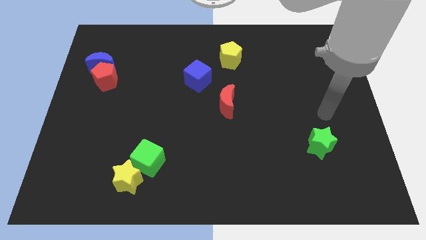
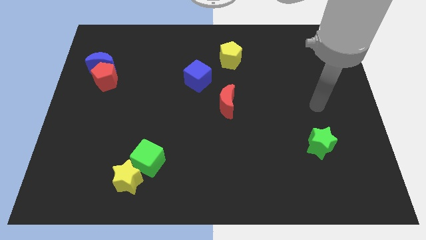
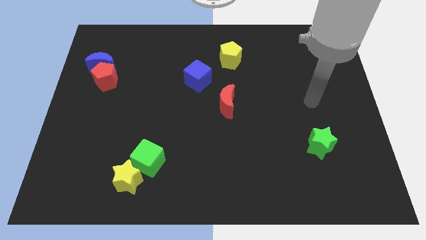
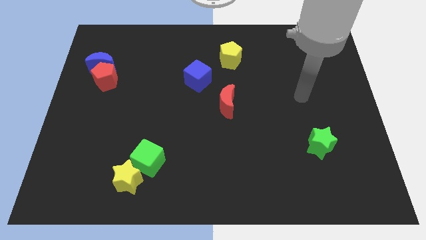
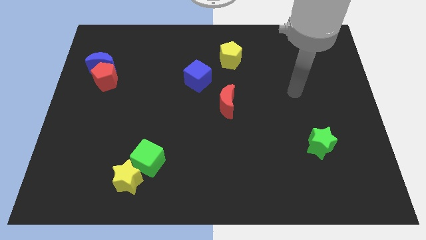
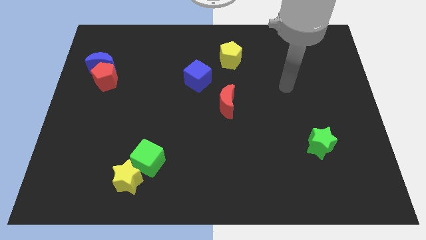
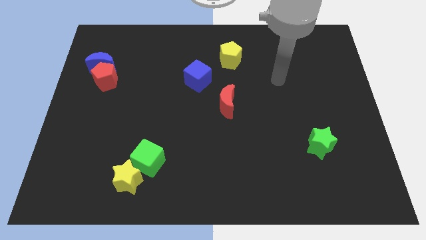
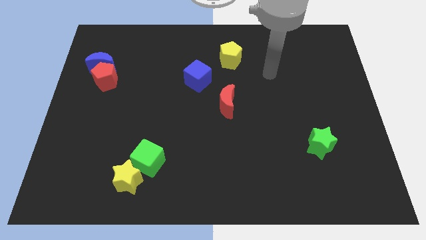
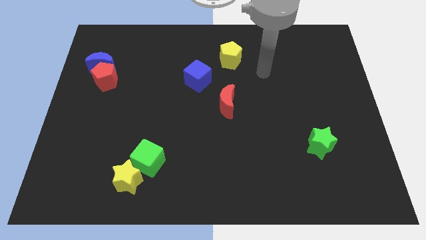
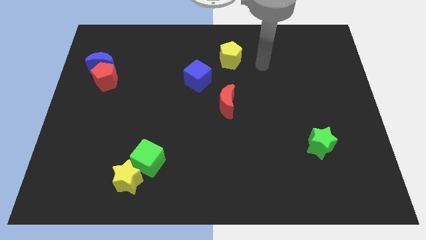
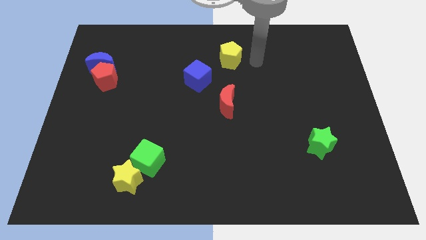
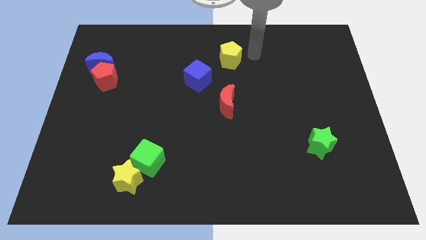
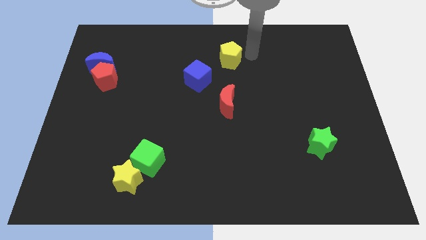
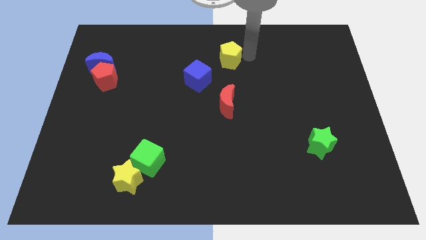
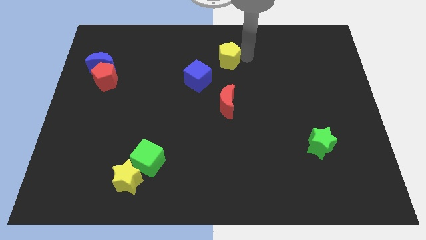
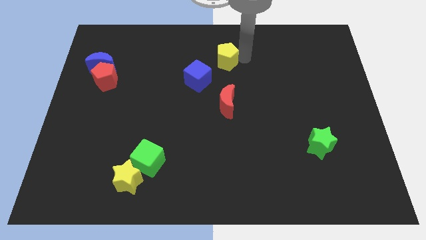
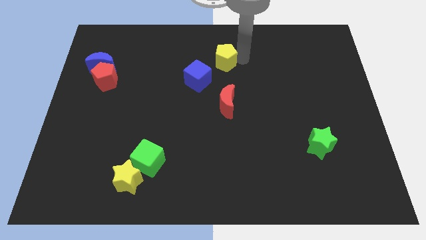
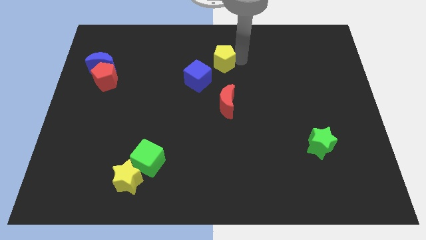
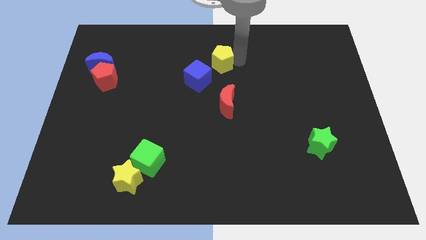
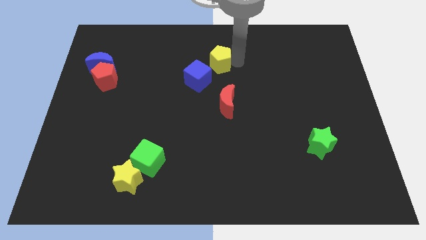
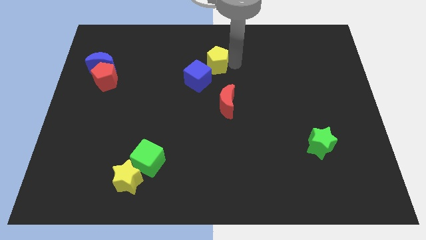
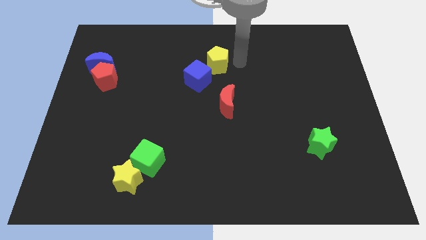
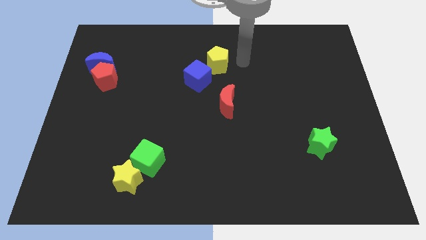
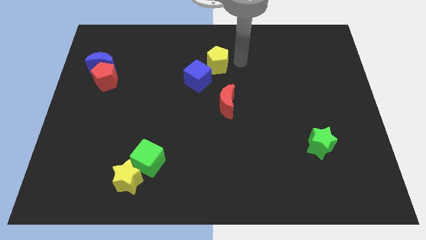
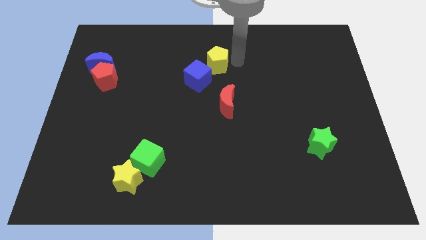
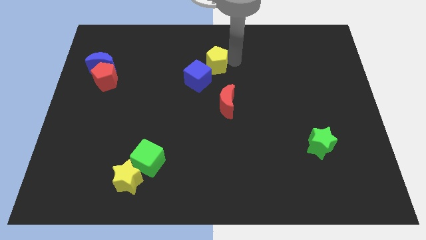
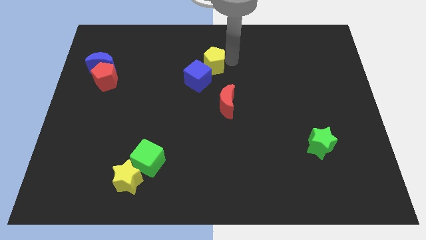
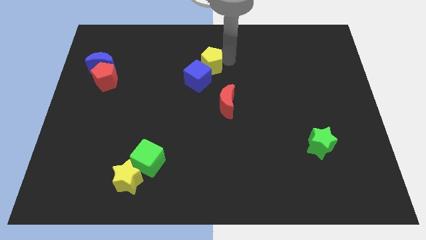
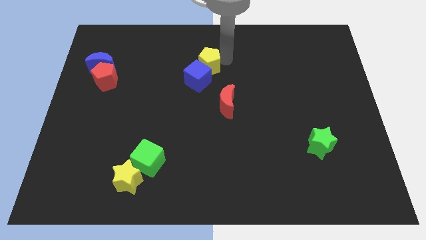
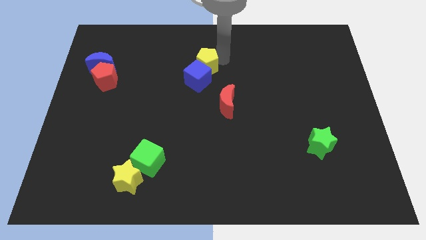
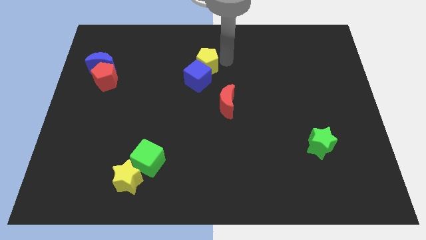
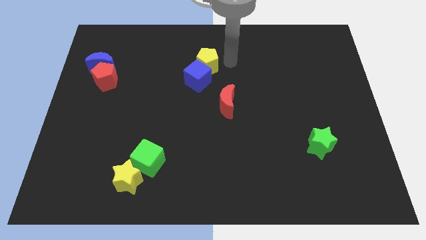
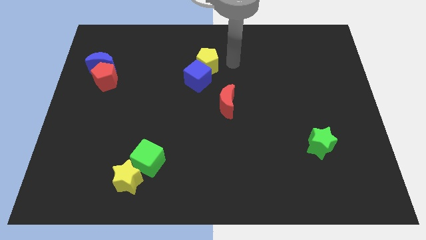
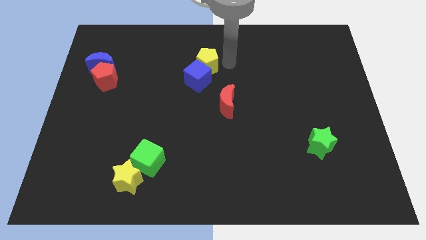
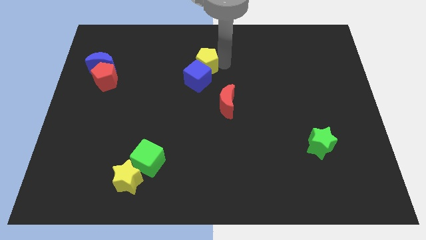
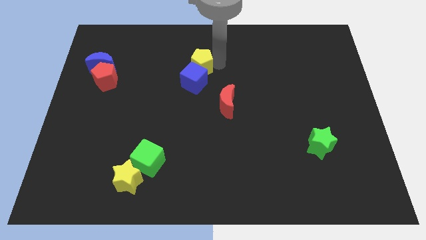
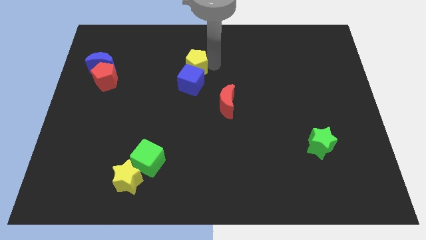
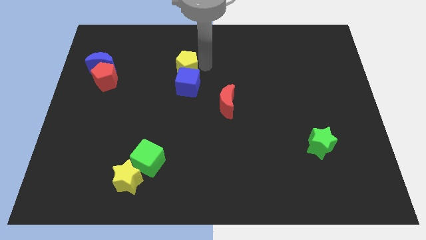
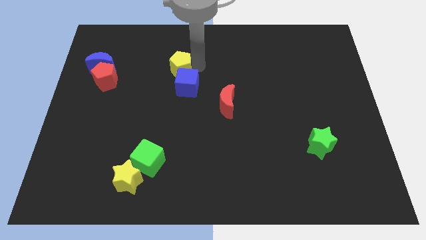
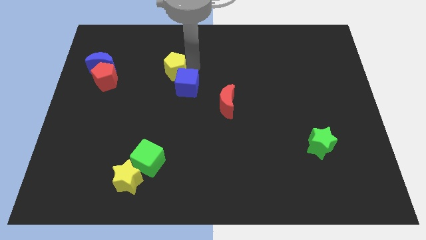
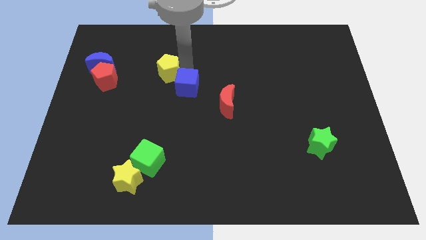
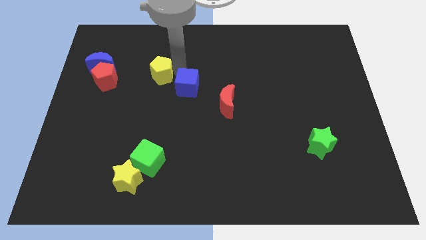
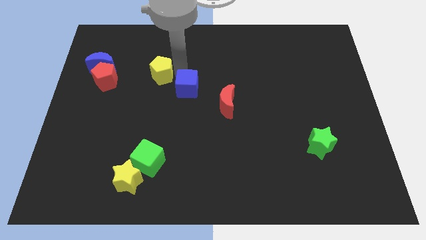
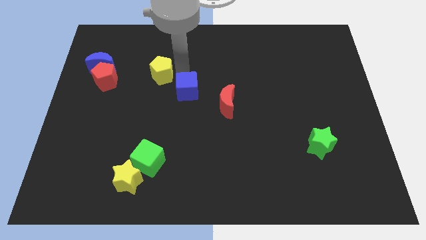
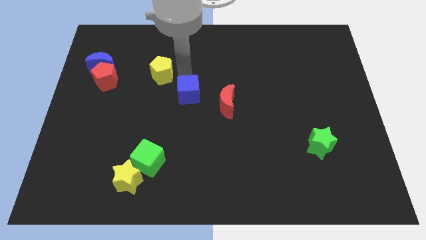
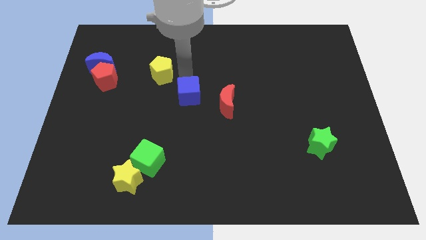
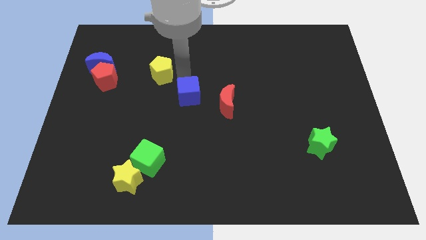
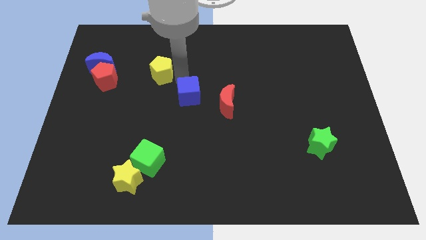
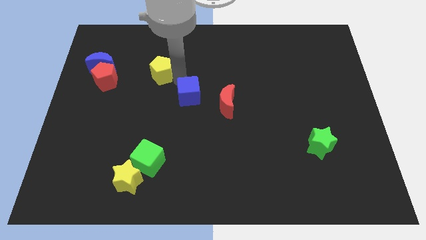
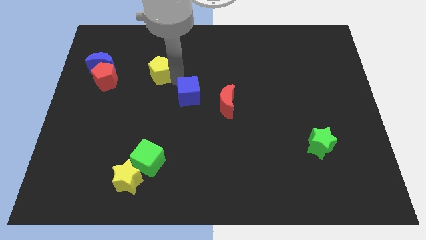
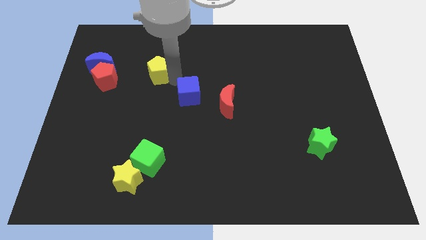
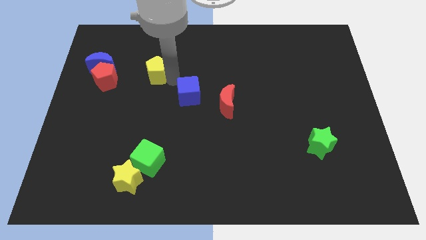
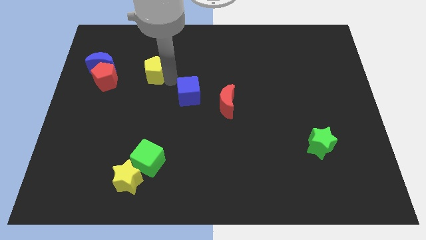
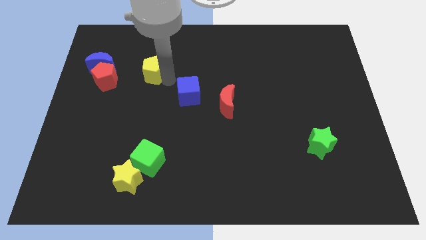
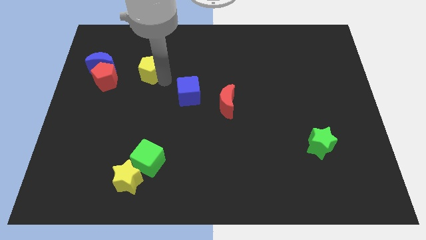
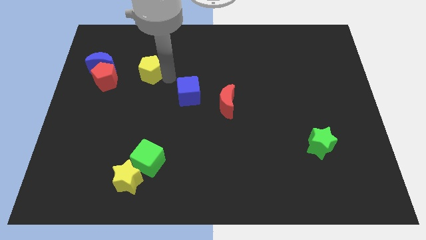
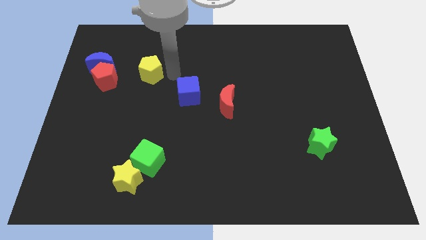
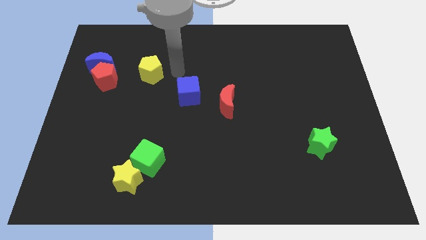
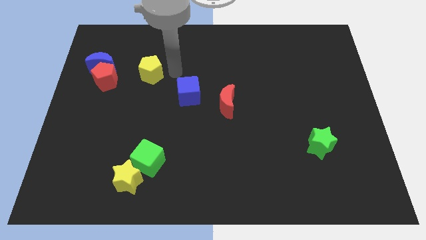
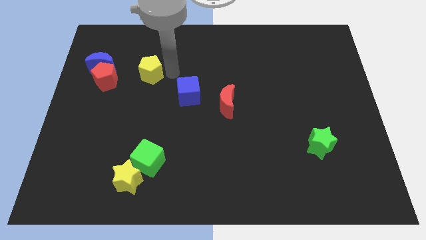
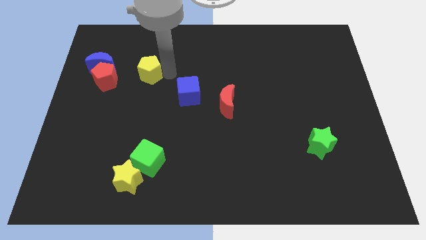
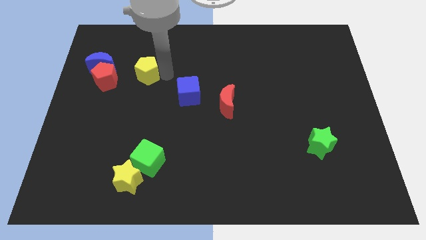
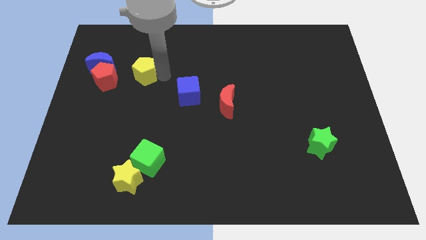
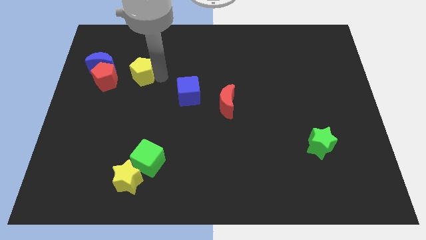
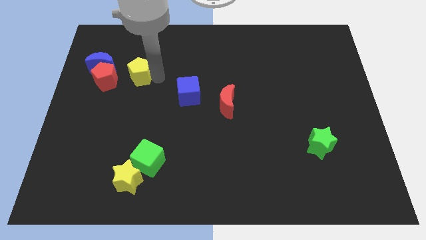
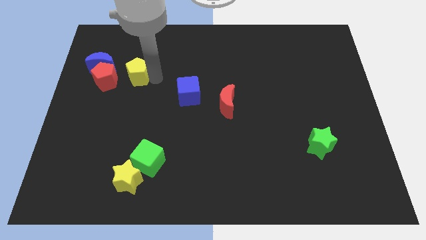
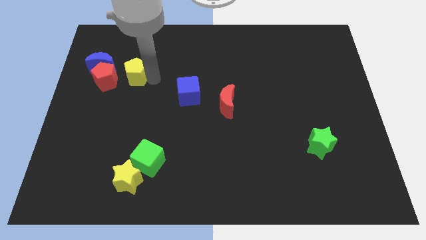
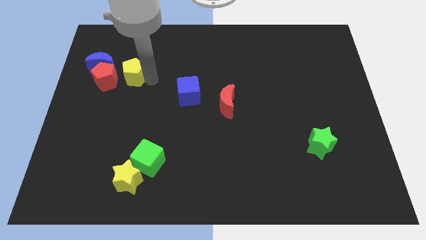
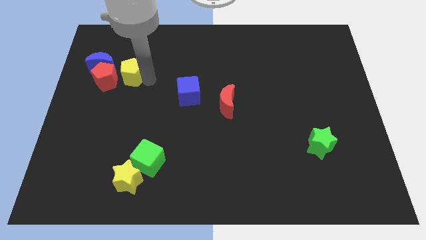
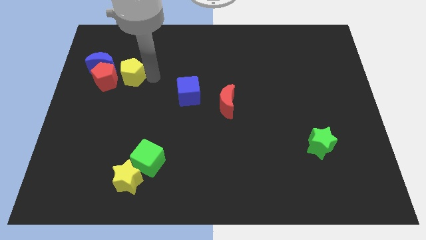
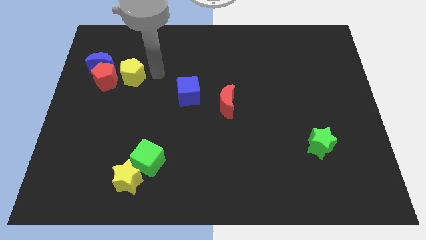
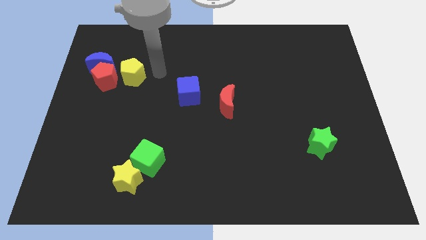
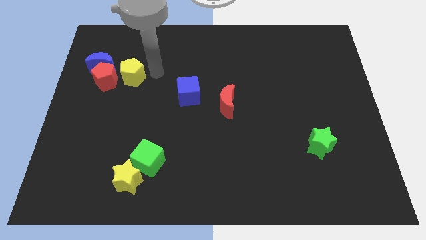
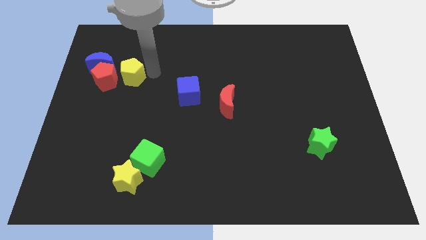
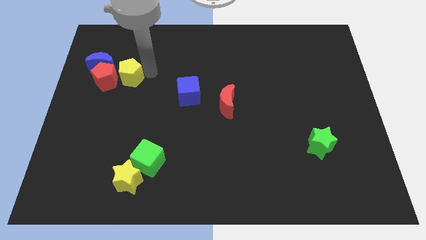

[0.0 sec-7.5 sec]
slide the yellow pentagon towards the red pentagon
